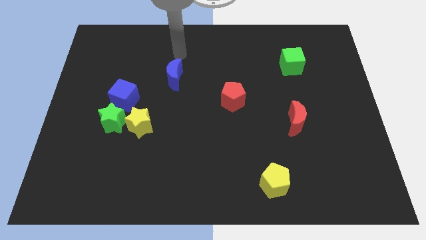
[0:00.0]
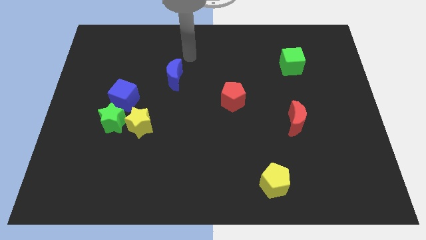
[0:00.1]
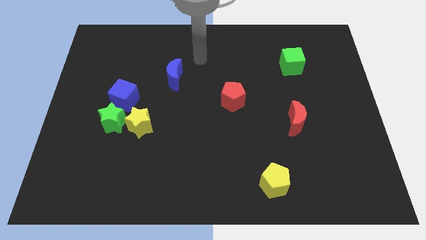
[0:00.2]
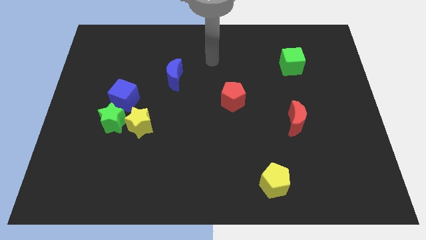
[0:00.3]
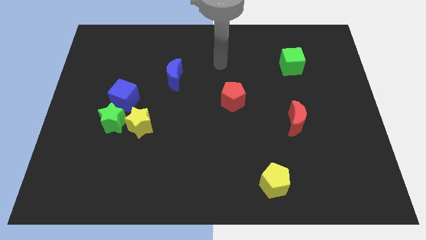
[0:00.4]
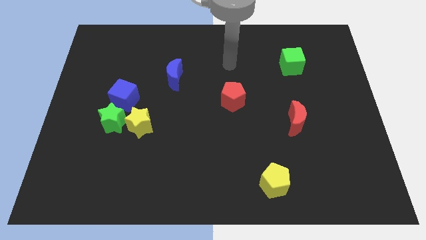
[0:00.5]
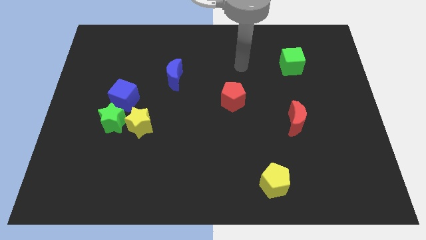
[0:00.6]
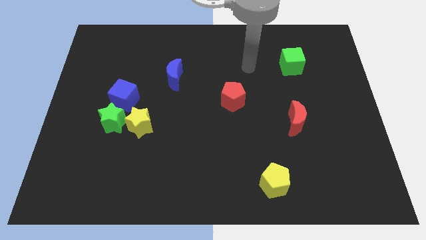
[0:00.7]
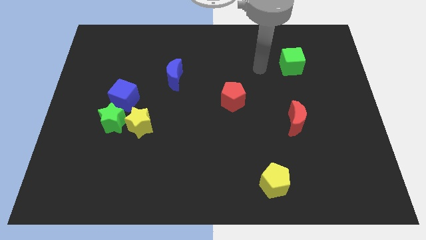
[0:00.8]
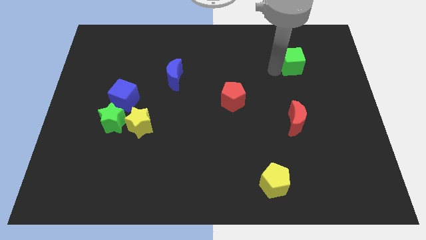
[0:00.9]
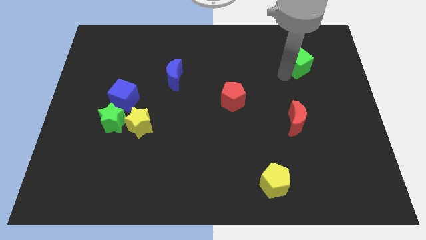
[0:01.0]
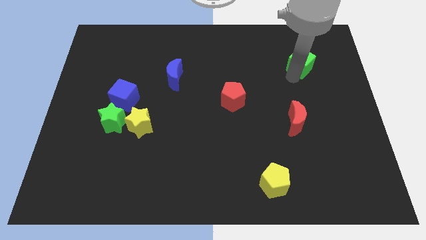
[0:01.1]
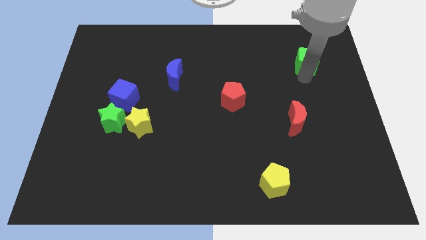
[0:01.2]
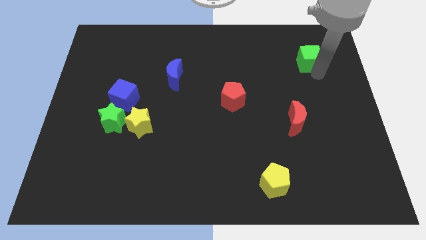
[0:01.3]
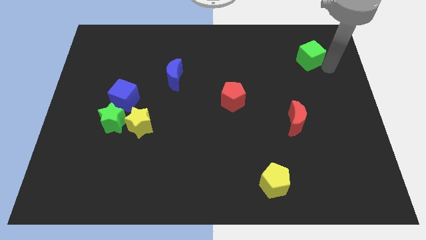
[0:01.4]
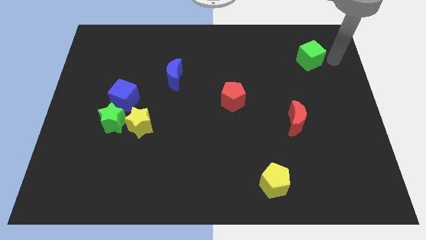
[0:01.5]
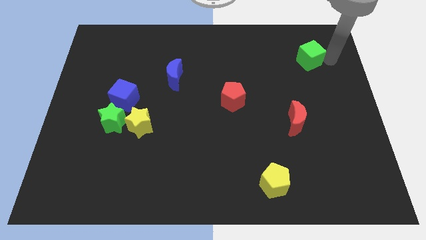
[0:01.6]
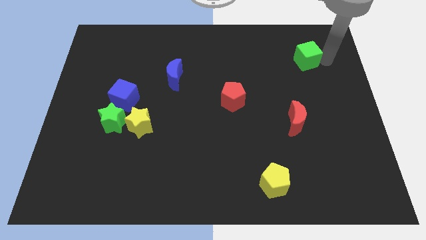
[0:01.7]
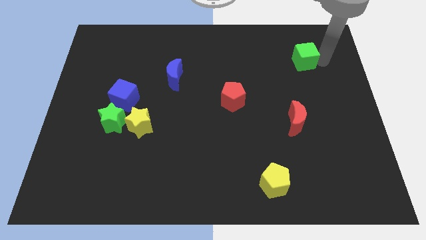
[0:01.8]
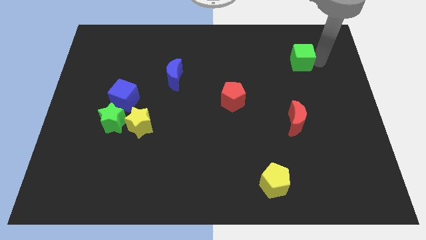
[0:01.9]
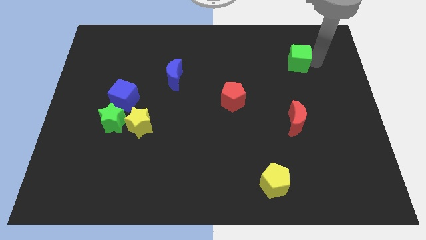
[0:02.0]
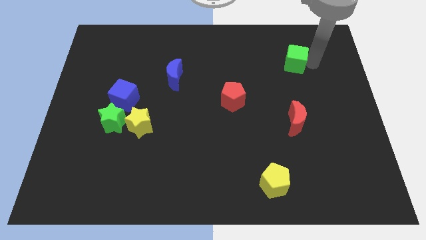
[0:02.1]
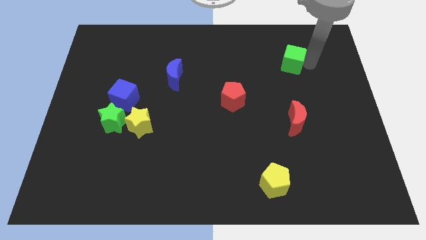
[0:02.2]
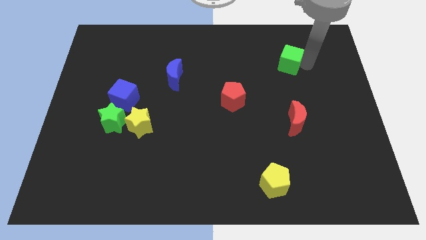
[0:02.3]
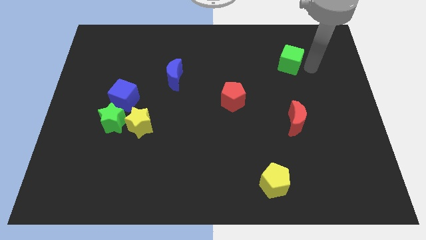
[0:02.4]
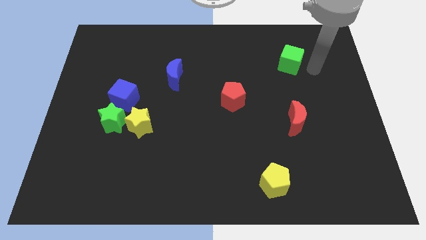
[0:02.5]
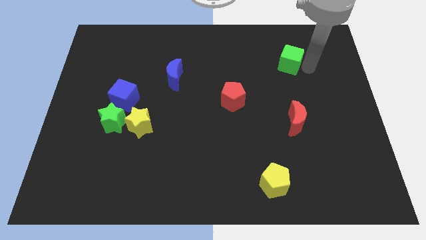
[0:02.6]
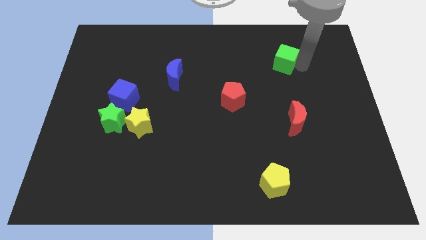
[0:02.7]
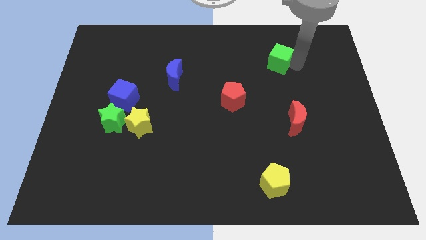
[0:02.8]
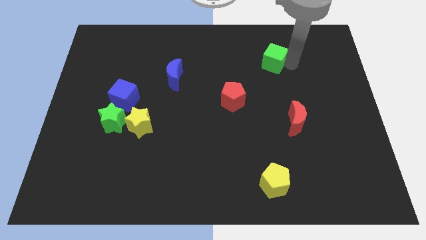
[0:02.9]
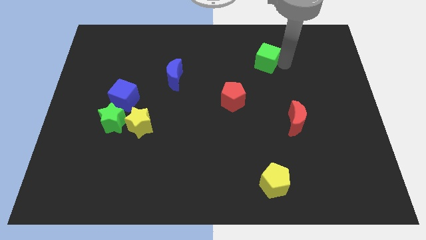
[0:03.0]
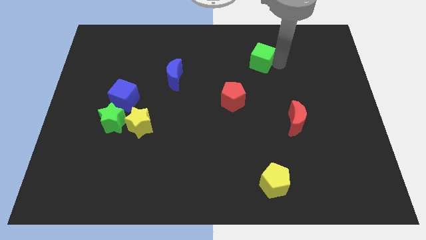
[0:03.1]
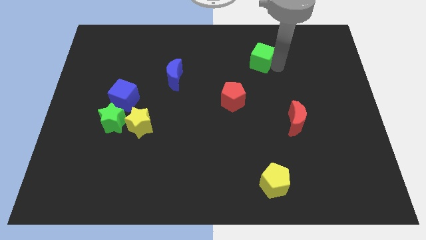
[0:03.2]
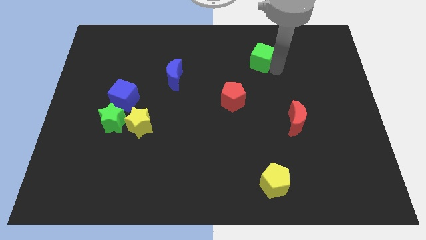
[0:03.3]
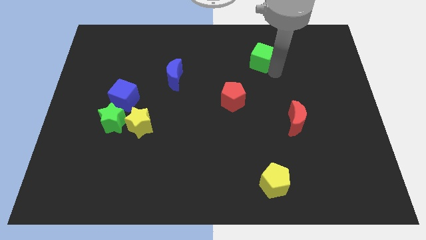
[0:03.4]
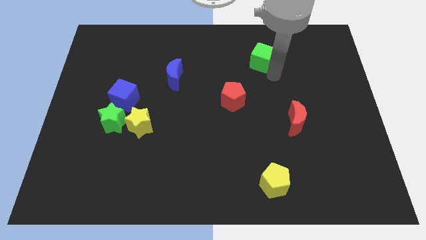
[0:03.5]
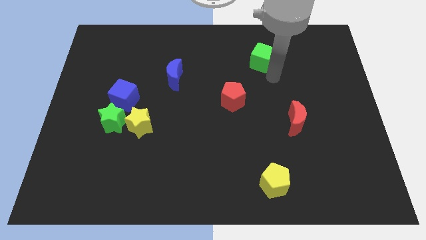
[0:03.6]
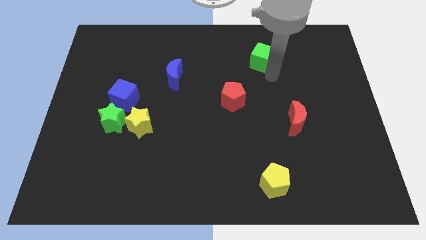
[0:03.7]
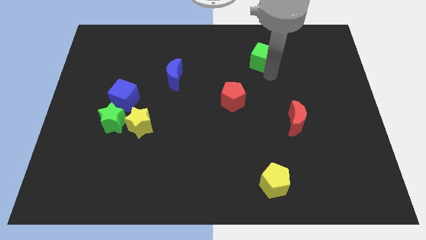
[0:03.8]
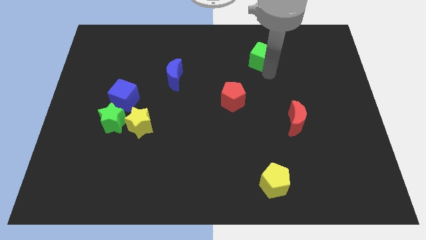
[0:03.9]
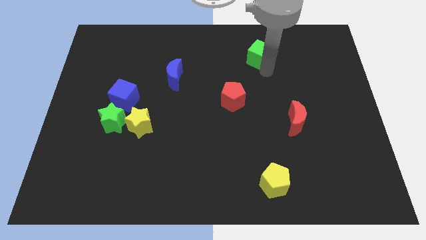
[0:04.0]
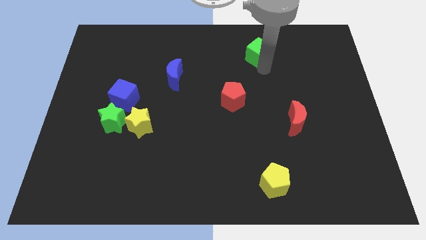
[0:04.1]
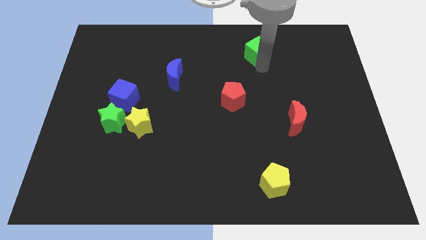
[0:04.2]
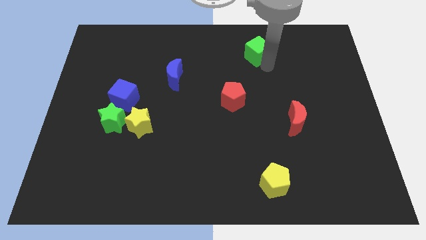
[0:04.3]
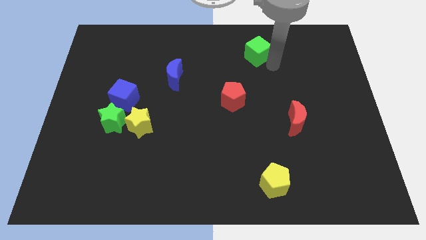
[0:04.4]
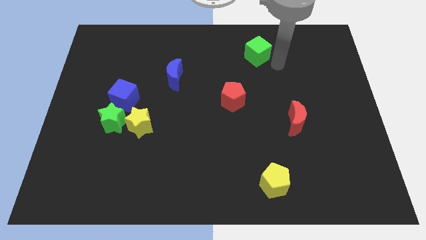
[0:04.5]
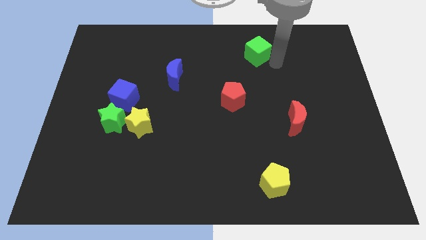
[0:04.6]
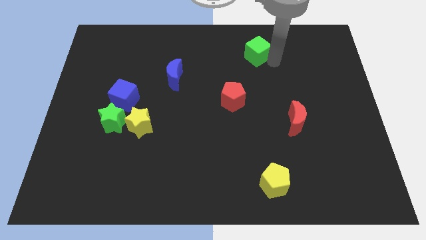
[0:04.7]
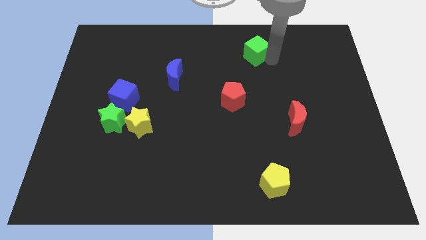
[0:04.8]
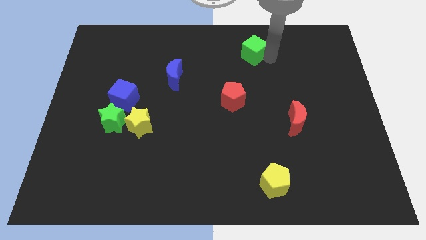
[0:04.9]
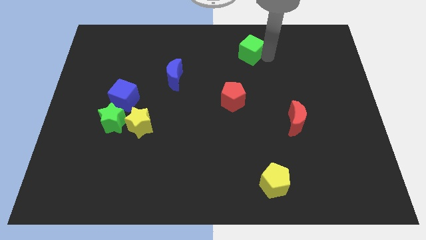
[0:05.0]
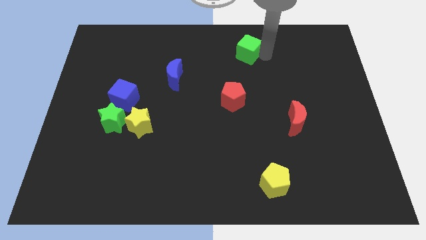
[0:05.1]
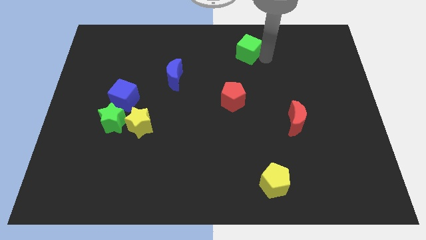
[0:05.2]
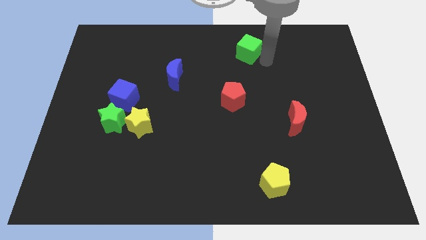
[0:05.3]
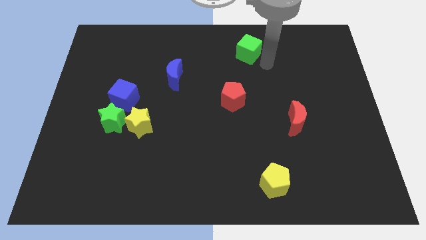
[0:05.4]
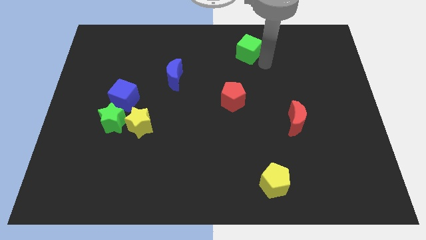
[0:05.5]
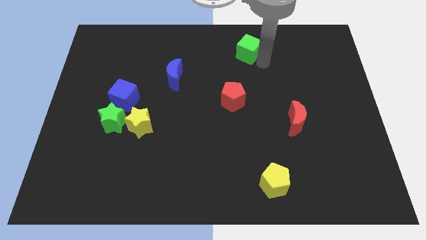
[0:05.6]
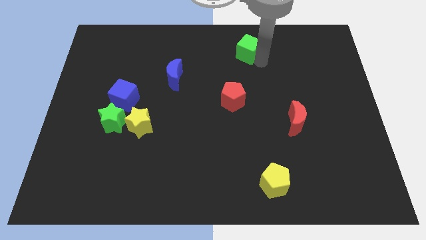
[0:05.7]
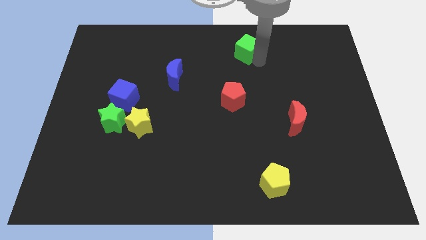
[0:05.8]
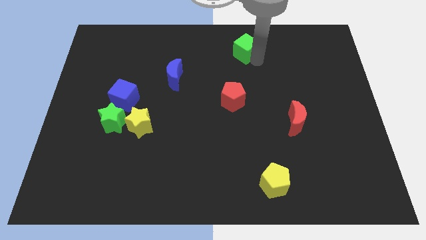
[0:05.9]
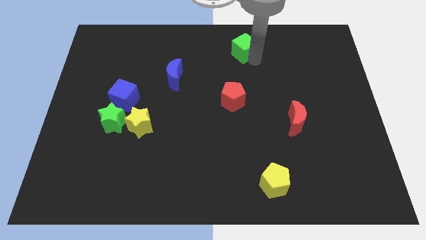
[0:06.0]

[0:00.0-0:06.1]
slide the green cube to the top
